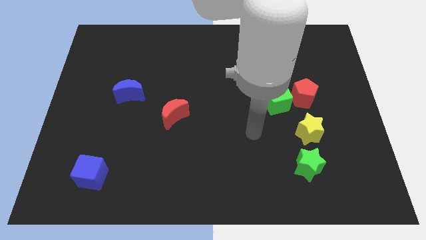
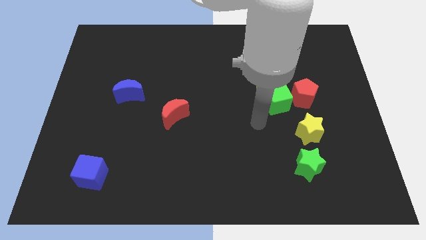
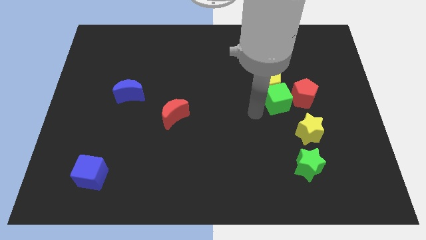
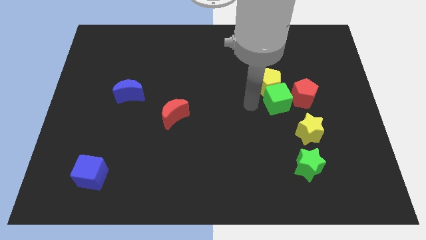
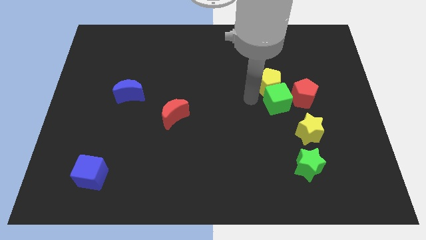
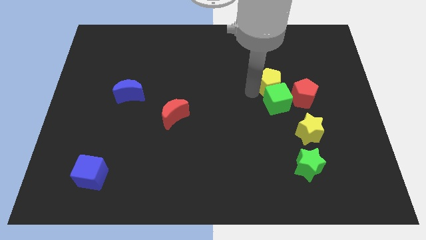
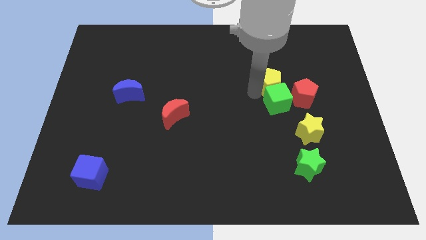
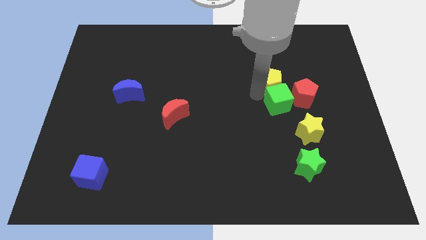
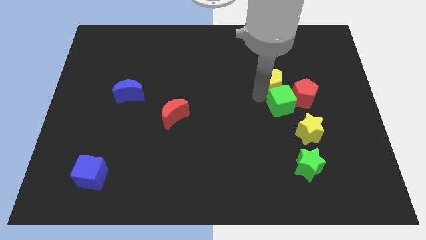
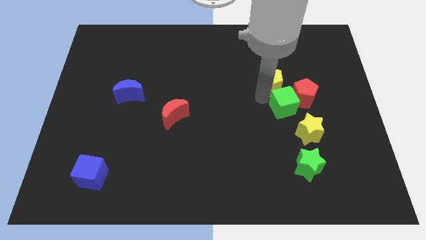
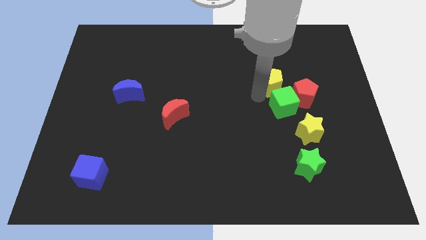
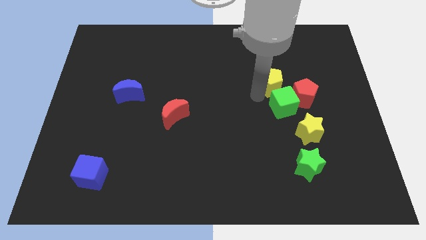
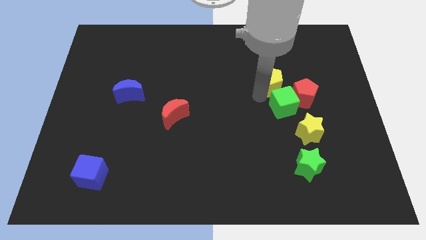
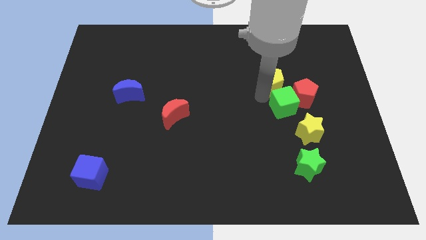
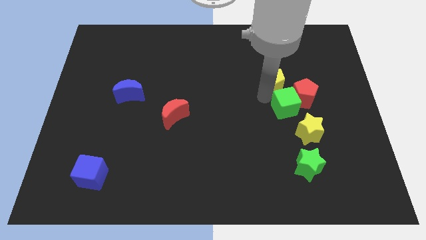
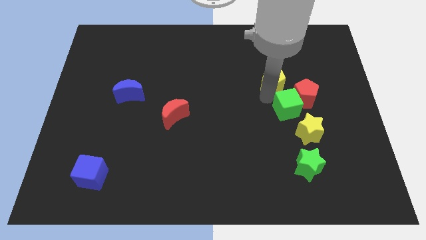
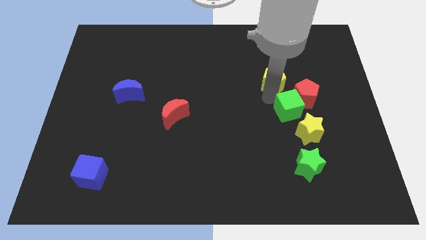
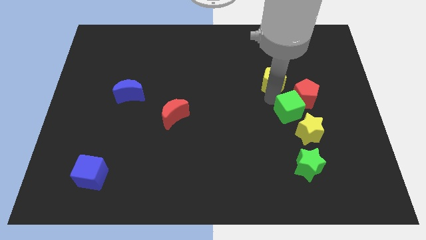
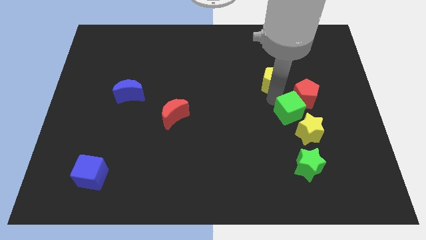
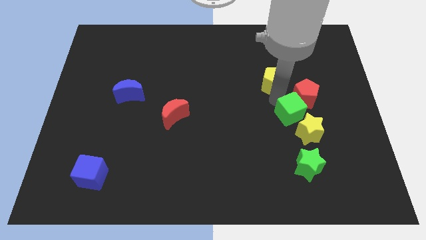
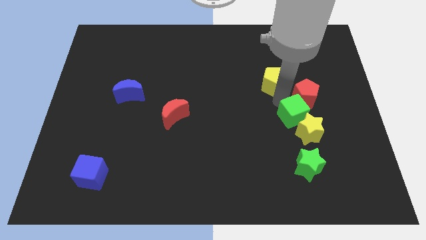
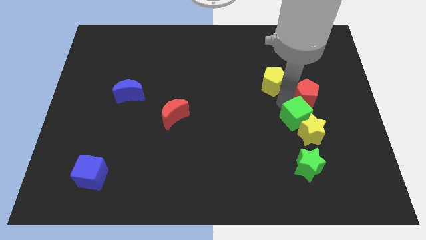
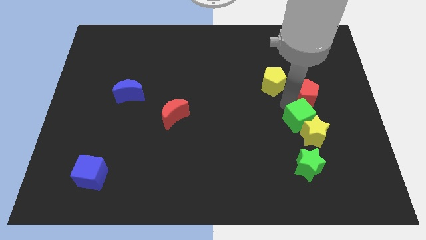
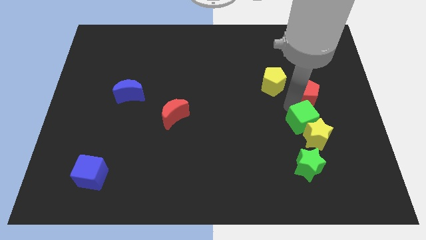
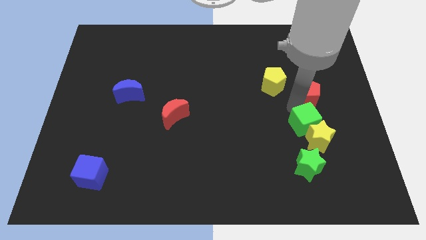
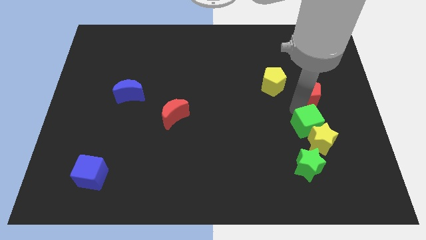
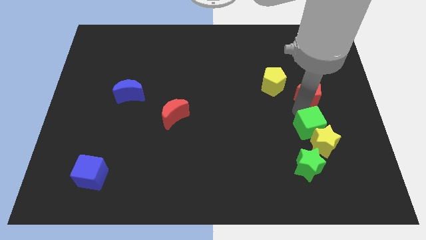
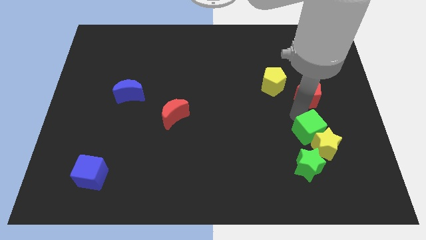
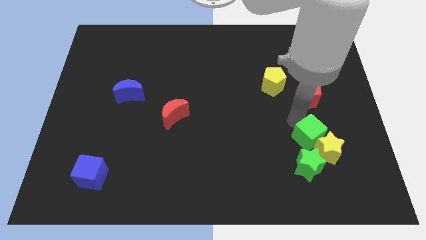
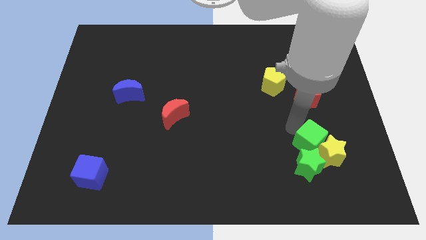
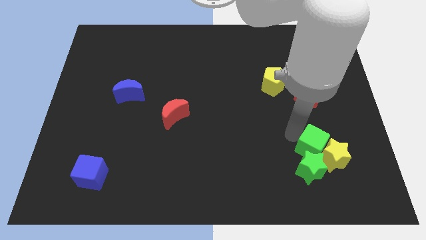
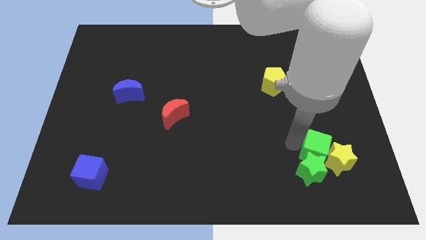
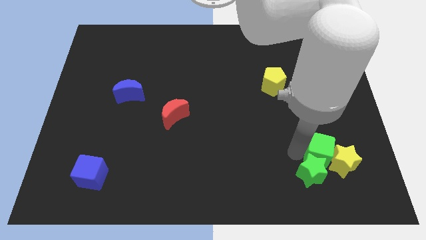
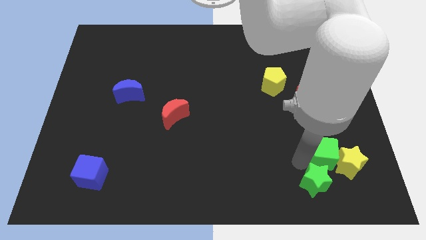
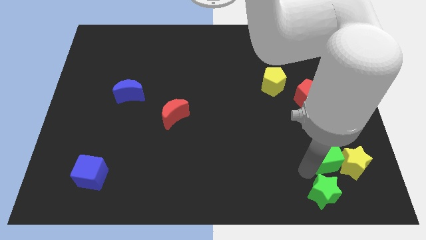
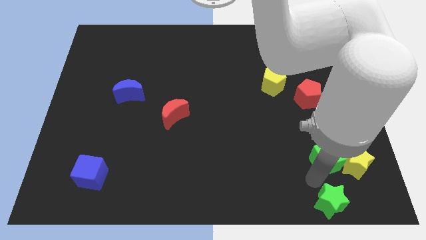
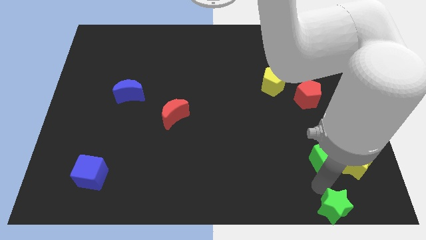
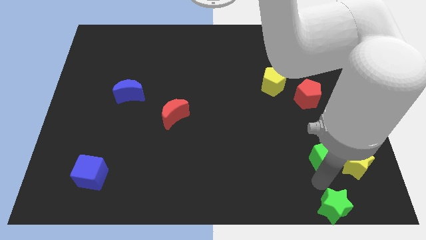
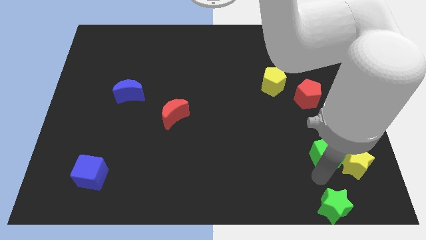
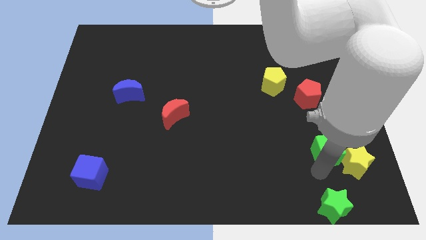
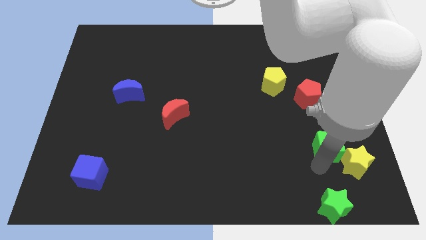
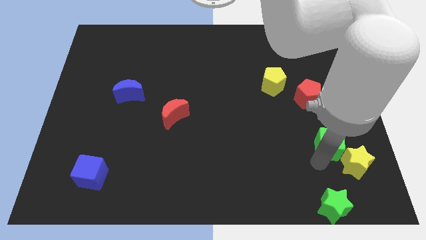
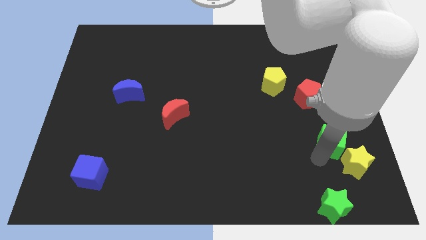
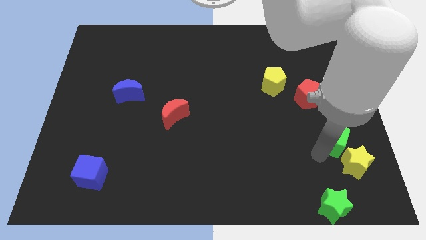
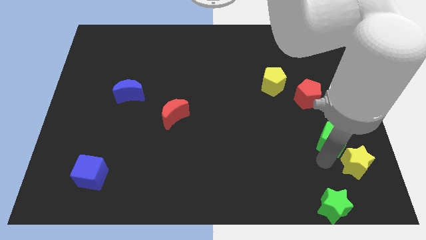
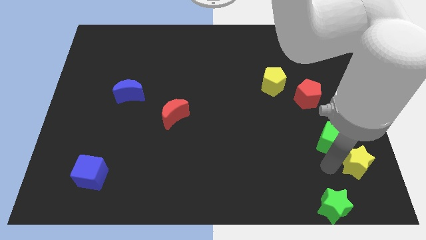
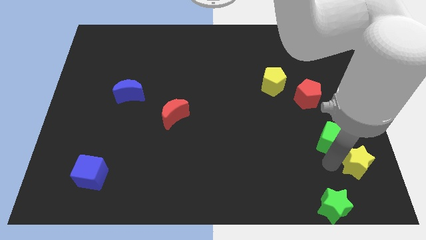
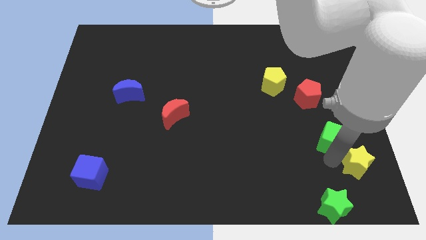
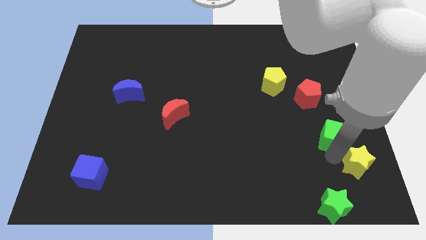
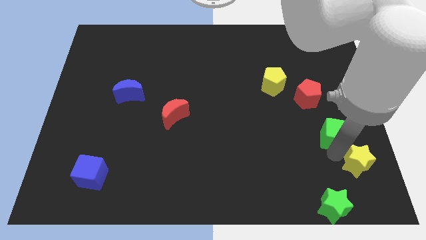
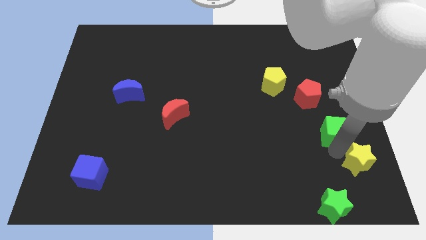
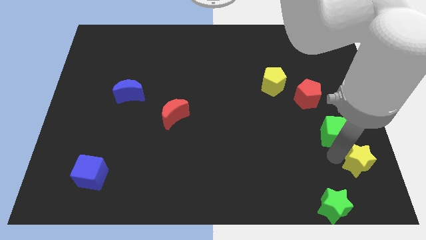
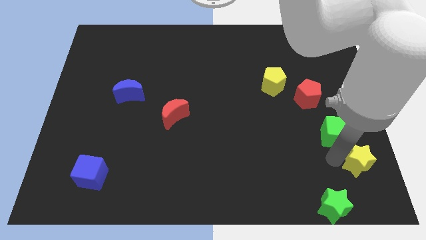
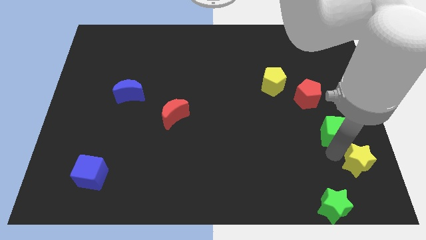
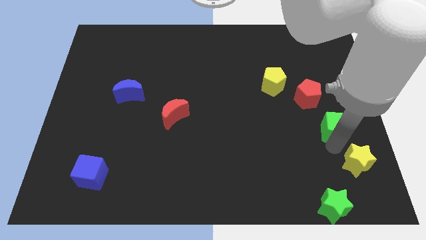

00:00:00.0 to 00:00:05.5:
put the green cube to the bottom right side of the red pentagon

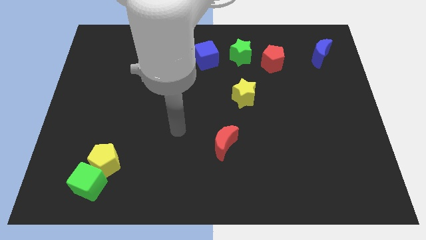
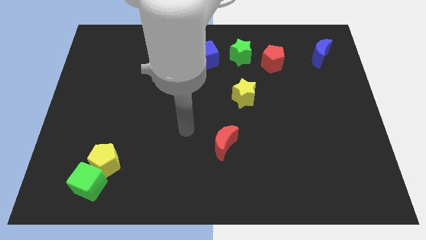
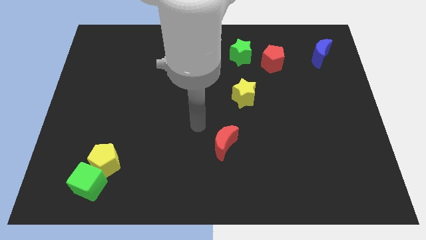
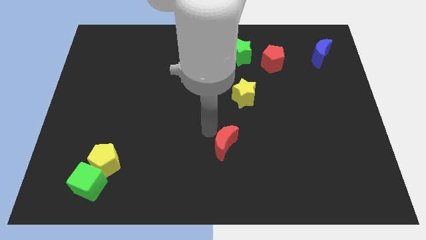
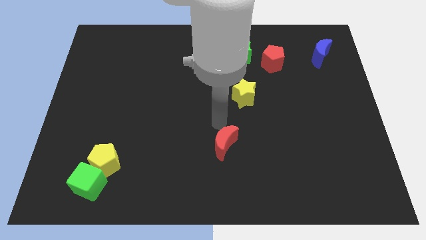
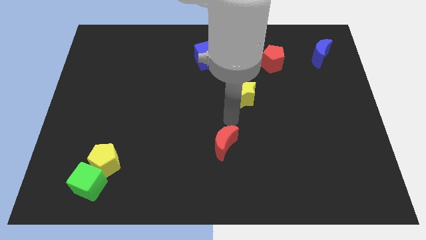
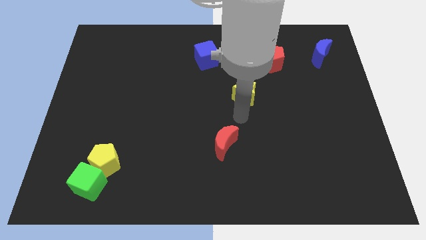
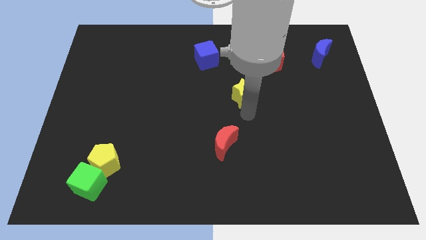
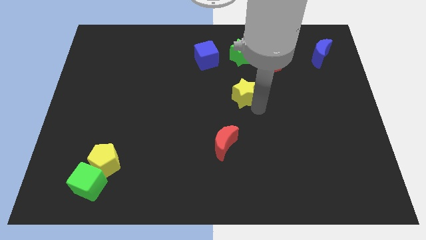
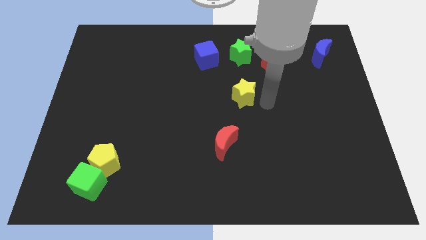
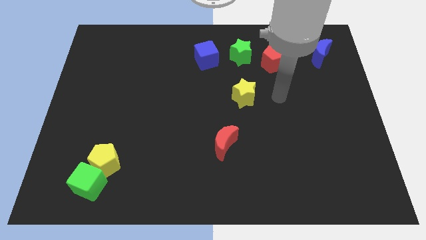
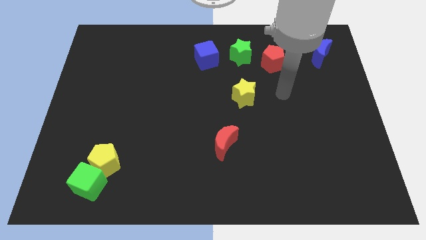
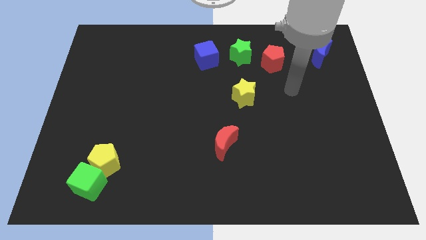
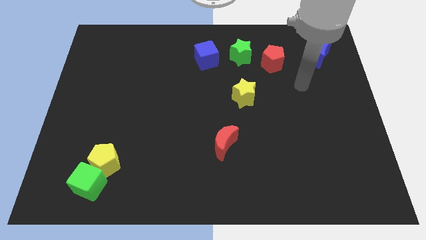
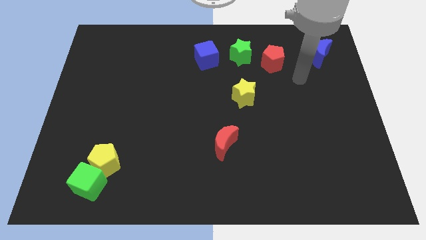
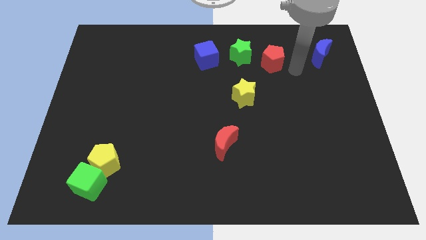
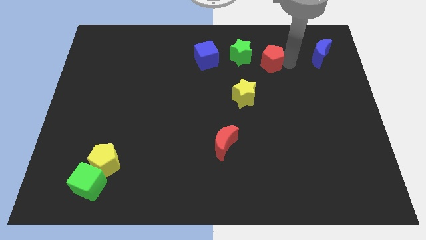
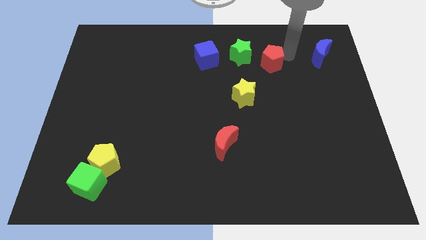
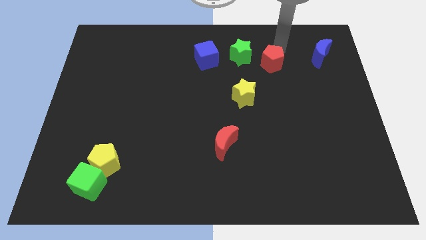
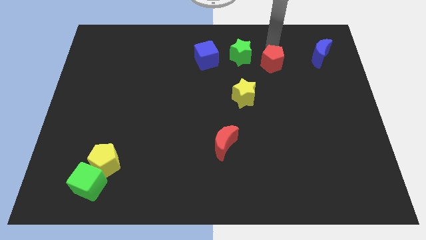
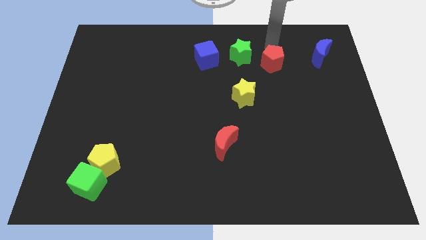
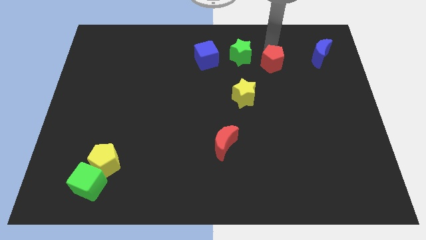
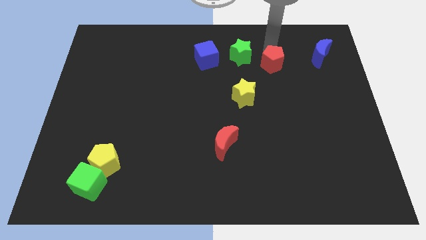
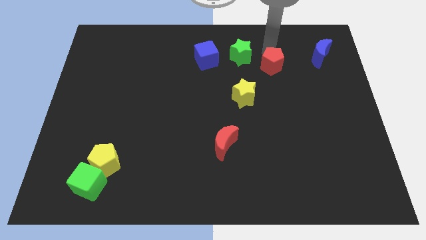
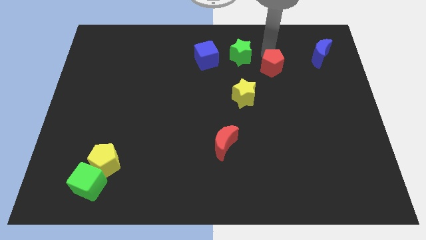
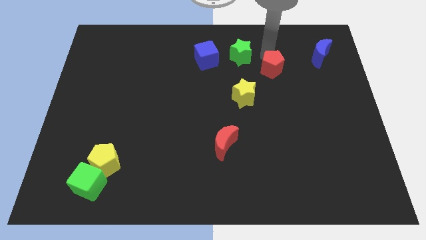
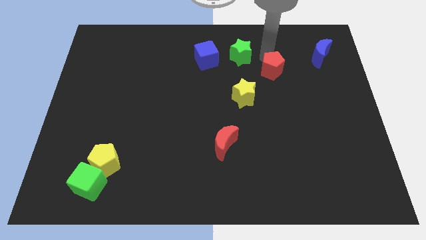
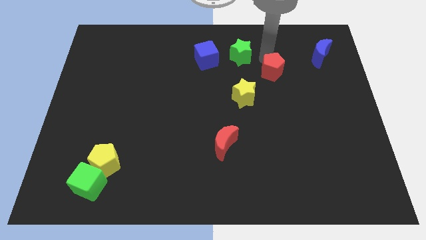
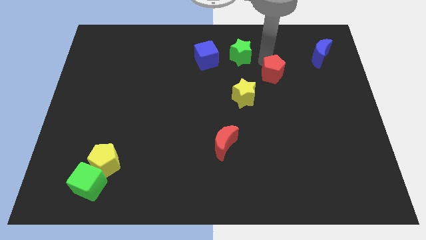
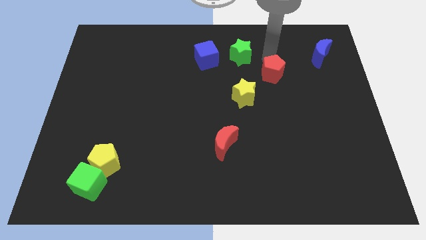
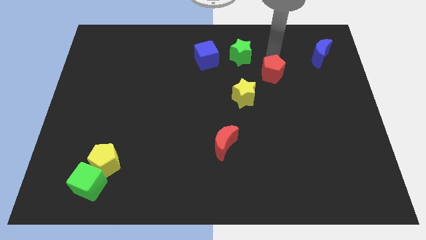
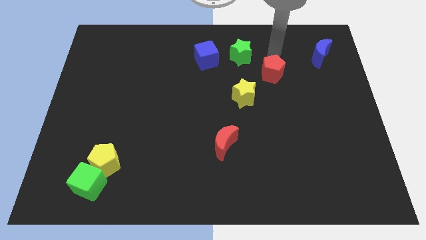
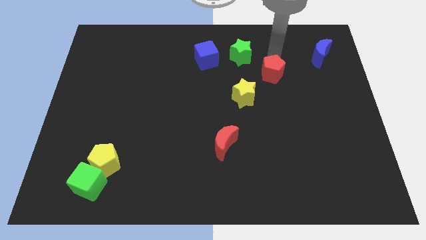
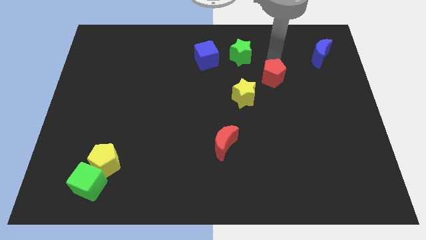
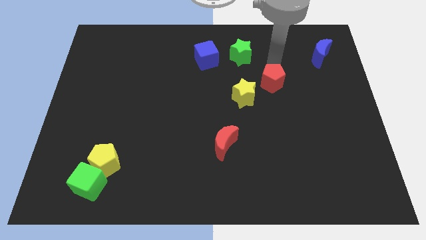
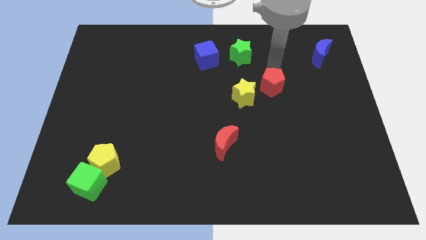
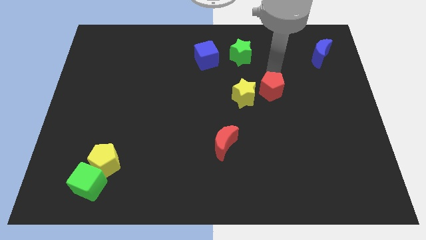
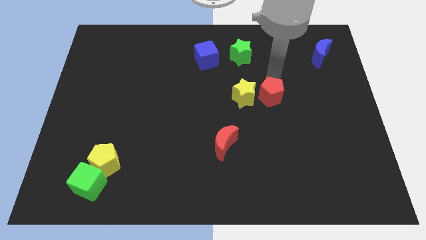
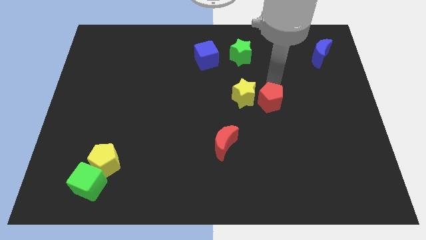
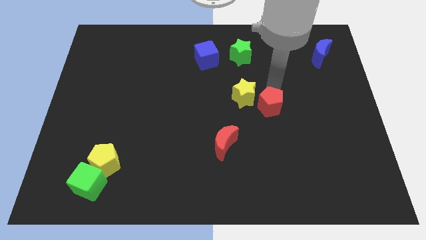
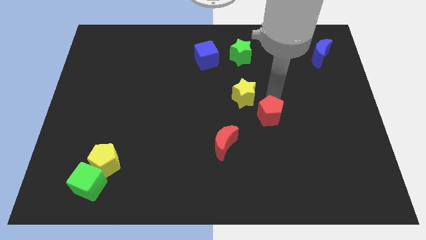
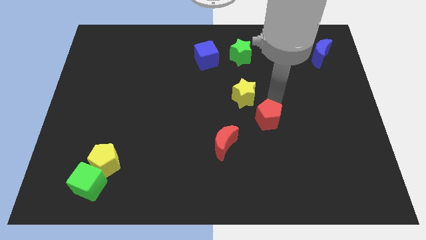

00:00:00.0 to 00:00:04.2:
move the red pentagon diagonally up and to the right of the red moon
